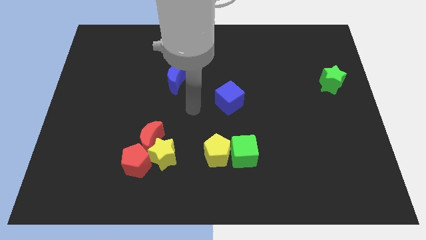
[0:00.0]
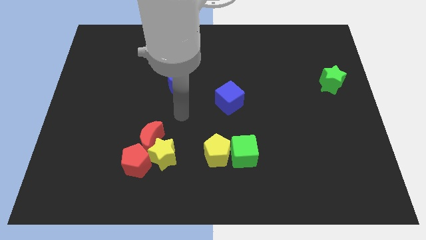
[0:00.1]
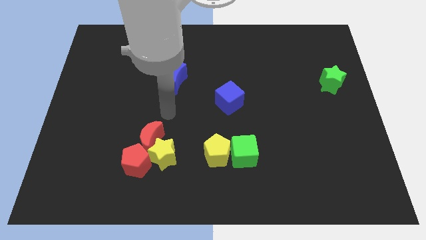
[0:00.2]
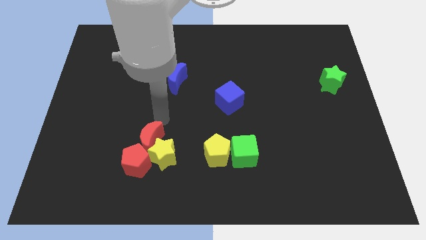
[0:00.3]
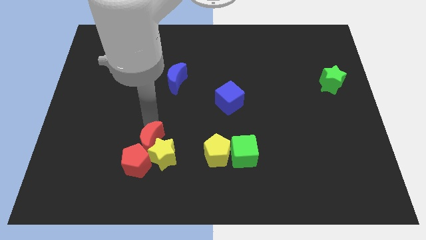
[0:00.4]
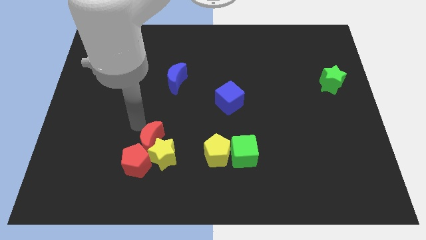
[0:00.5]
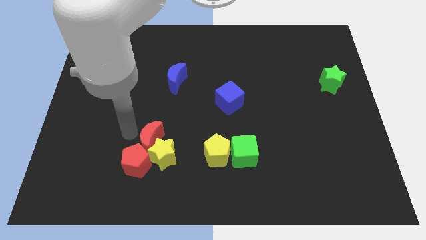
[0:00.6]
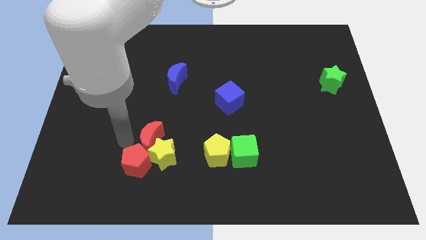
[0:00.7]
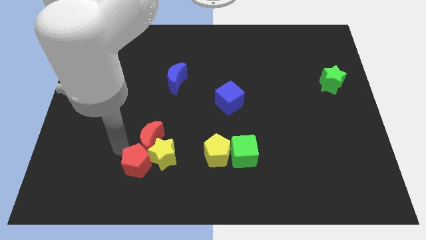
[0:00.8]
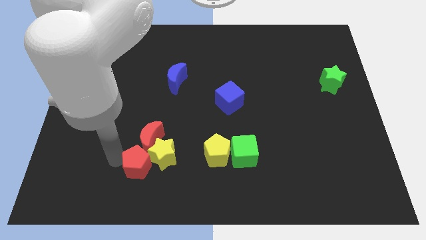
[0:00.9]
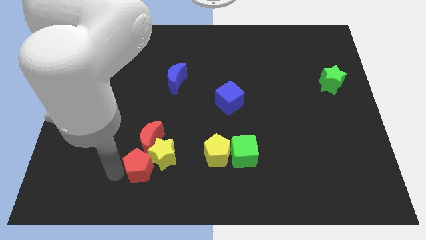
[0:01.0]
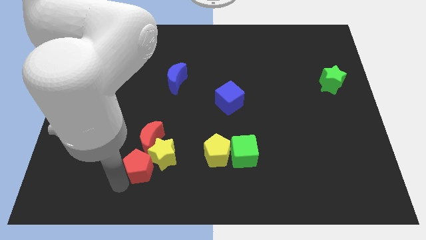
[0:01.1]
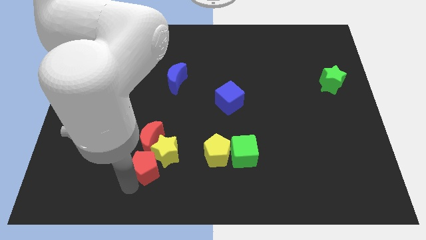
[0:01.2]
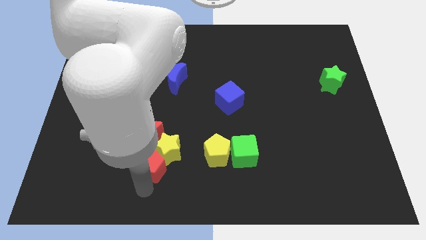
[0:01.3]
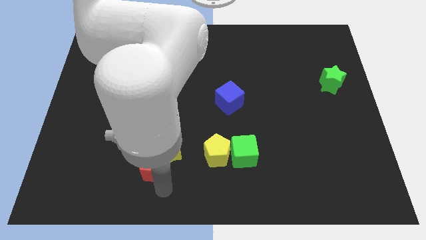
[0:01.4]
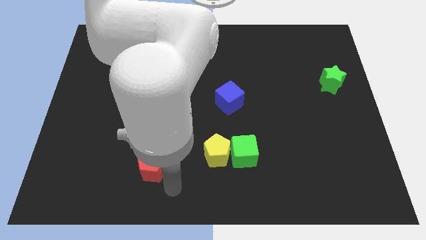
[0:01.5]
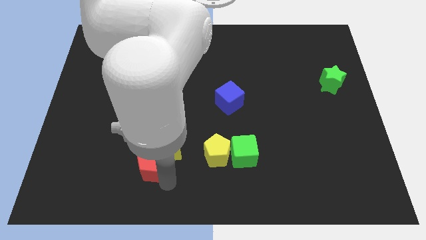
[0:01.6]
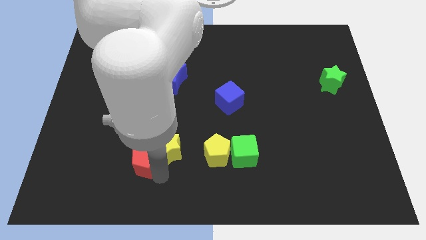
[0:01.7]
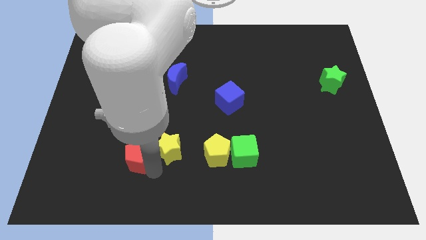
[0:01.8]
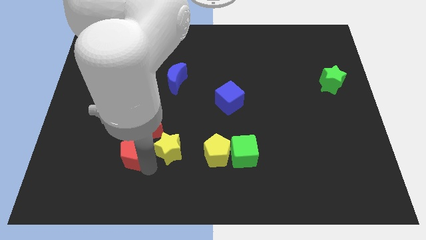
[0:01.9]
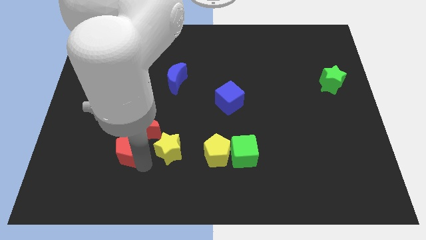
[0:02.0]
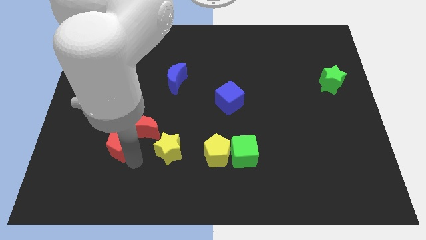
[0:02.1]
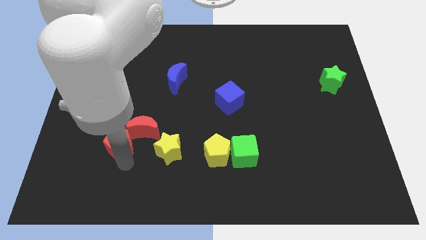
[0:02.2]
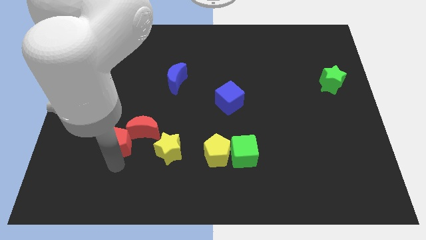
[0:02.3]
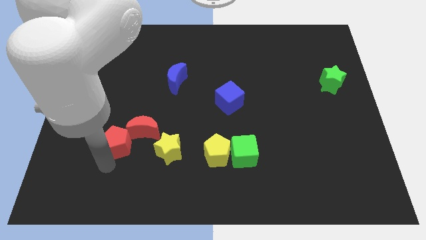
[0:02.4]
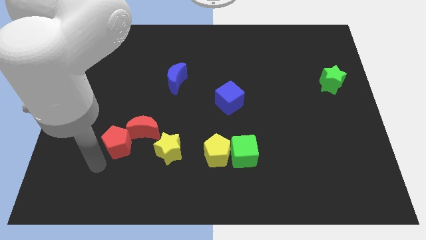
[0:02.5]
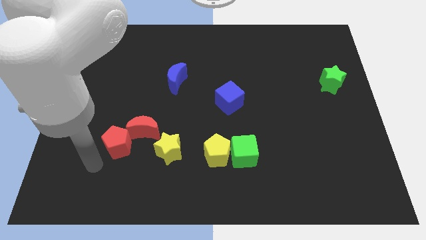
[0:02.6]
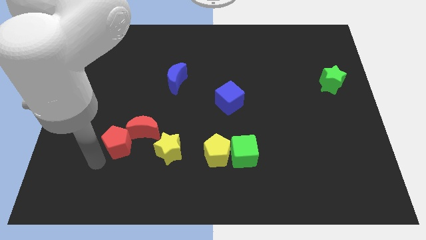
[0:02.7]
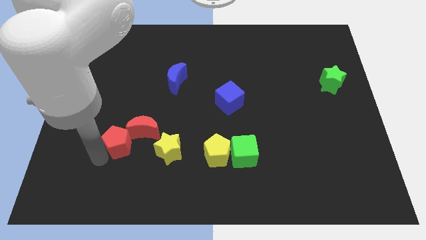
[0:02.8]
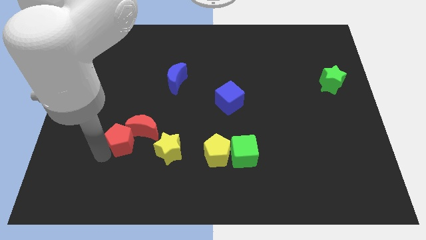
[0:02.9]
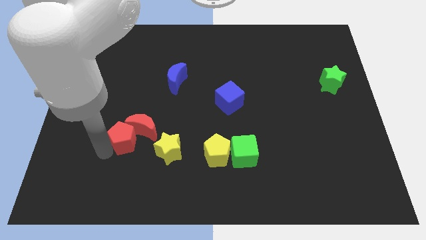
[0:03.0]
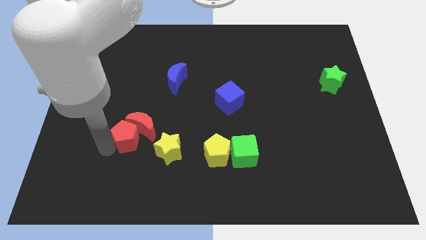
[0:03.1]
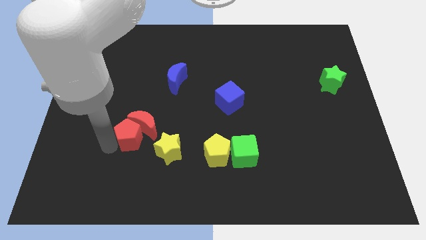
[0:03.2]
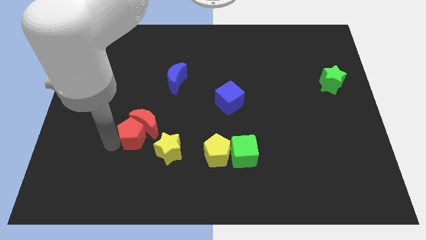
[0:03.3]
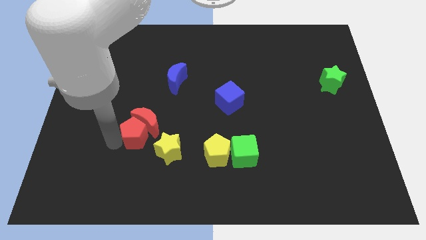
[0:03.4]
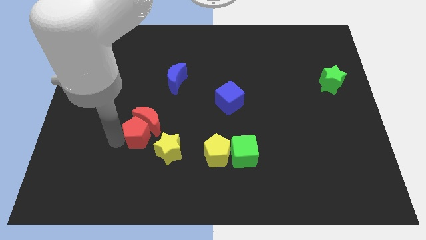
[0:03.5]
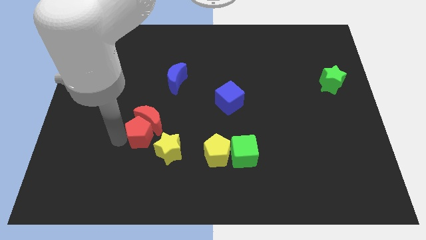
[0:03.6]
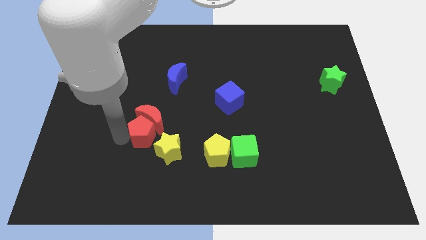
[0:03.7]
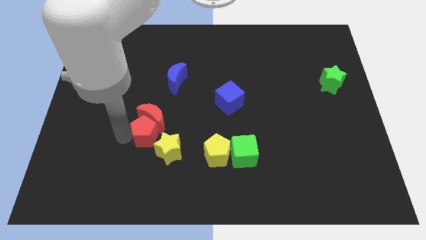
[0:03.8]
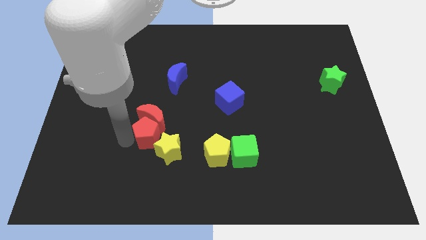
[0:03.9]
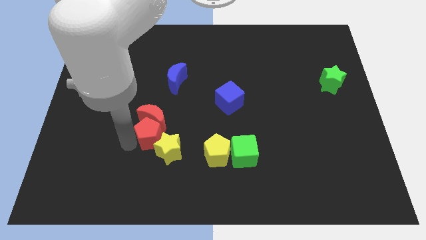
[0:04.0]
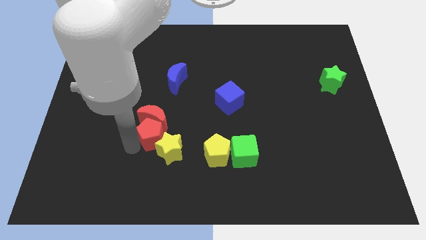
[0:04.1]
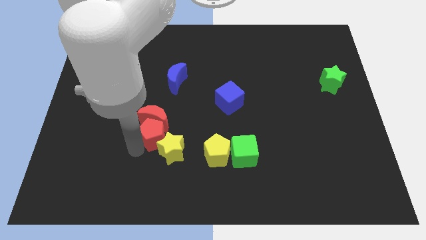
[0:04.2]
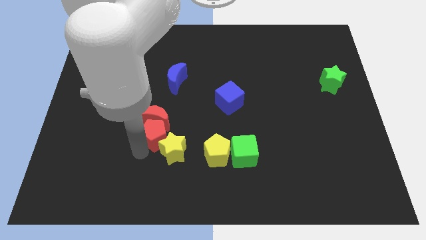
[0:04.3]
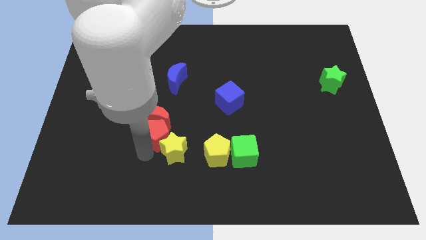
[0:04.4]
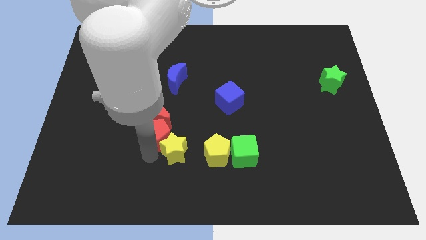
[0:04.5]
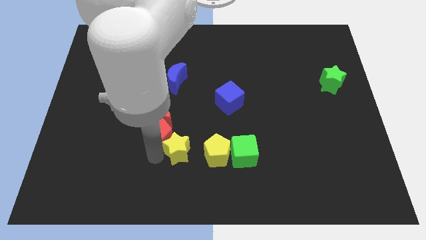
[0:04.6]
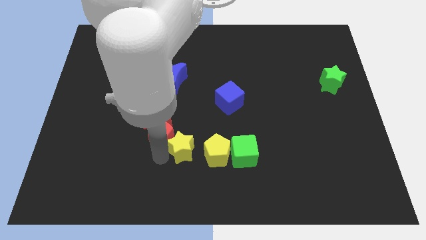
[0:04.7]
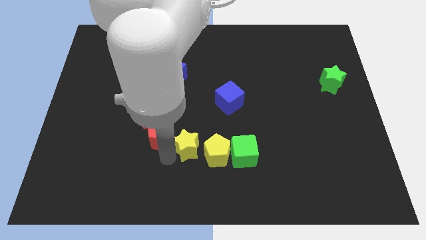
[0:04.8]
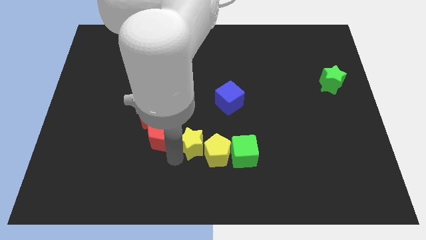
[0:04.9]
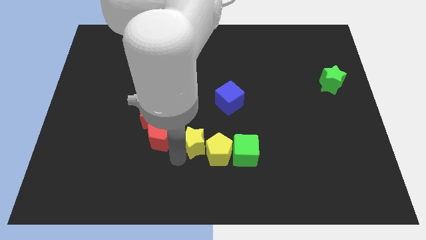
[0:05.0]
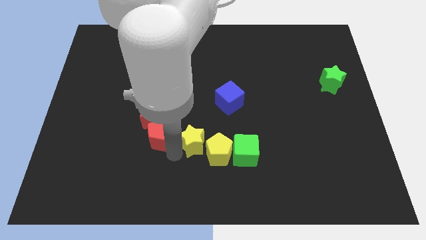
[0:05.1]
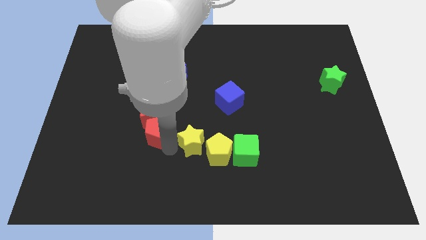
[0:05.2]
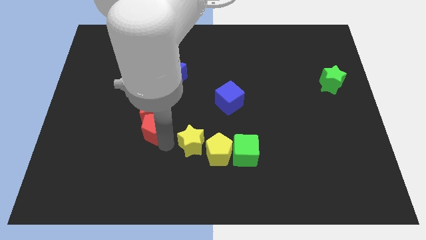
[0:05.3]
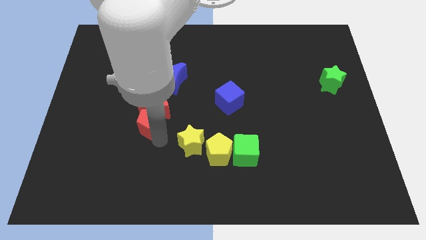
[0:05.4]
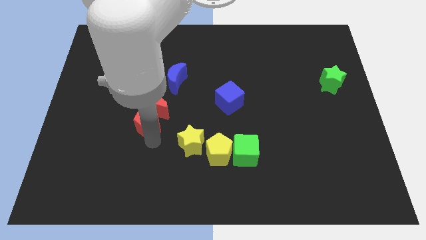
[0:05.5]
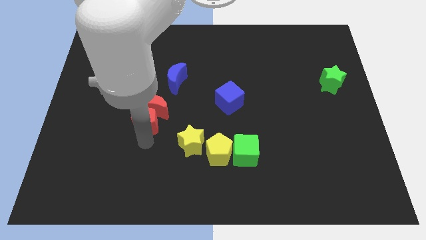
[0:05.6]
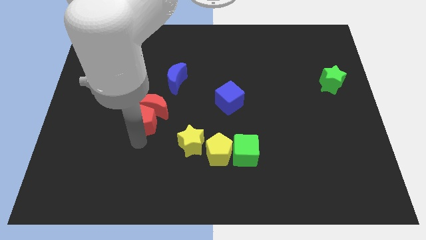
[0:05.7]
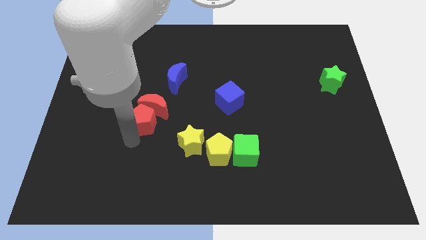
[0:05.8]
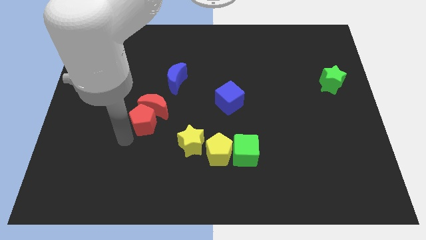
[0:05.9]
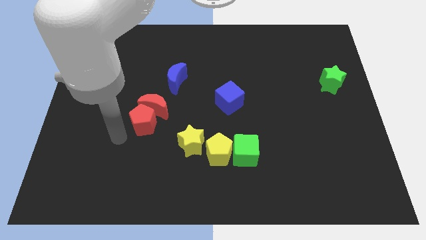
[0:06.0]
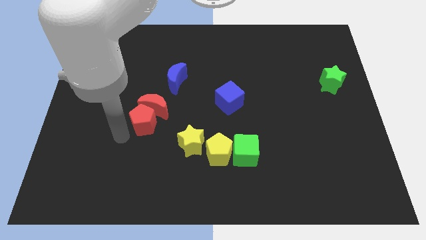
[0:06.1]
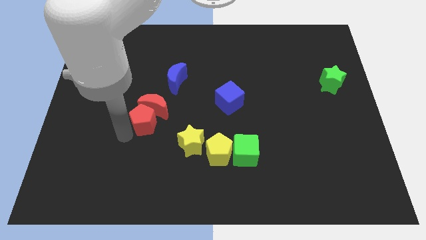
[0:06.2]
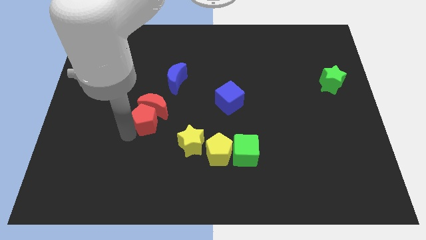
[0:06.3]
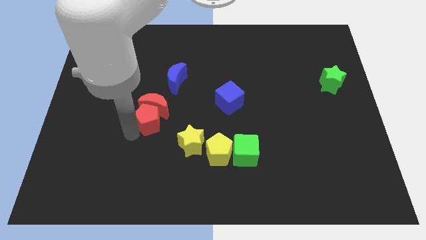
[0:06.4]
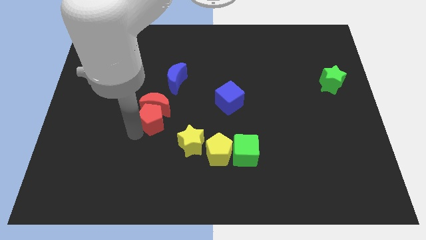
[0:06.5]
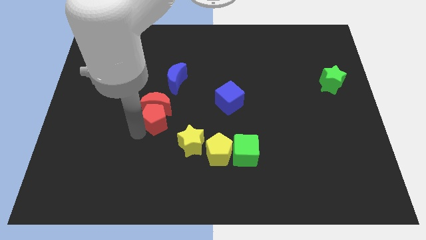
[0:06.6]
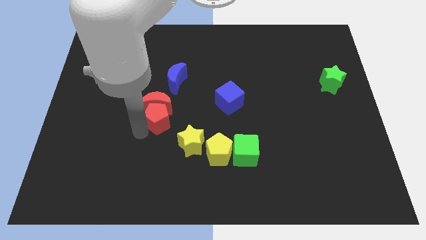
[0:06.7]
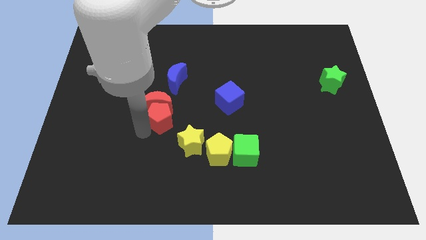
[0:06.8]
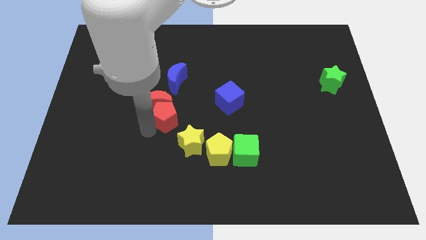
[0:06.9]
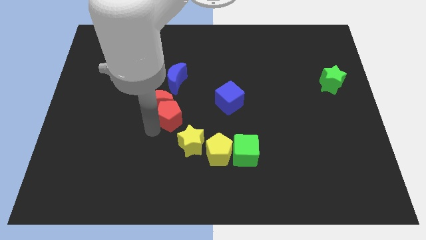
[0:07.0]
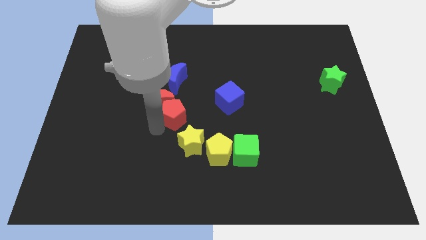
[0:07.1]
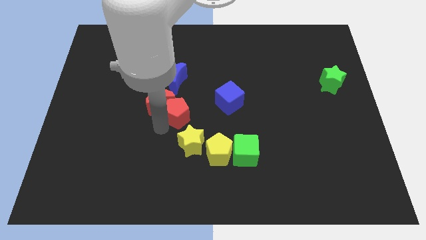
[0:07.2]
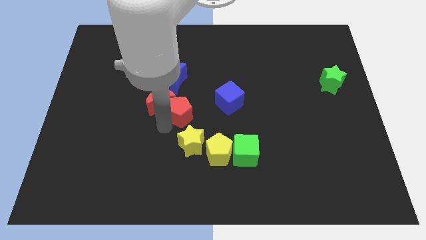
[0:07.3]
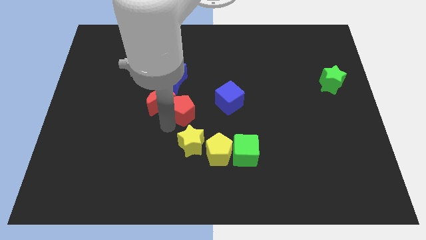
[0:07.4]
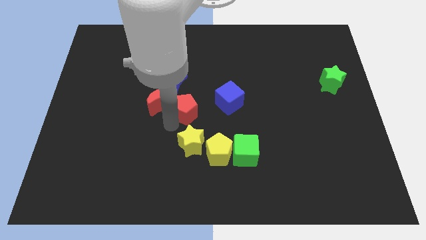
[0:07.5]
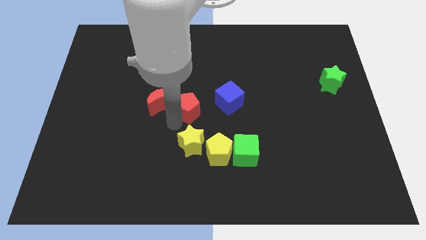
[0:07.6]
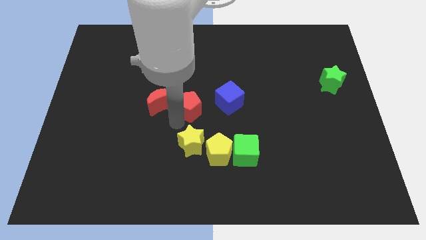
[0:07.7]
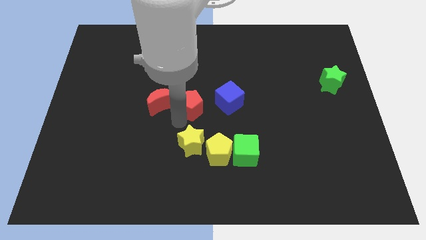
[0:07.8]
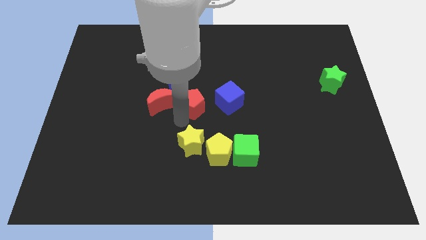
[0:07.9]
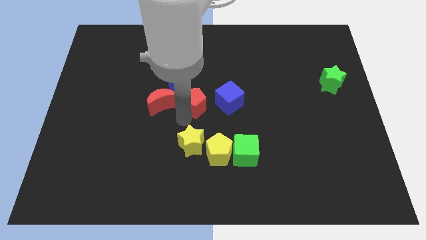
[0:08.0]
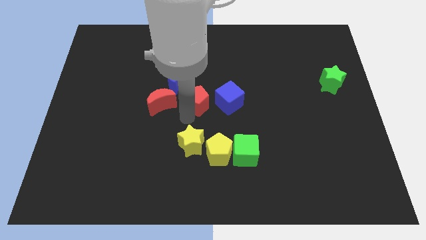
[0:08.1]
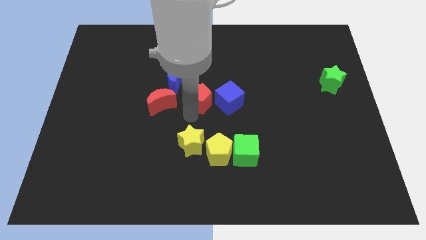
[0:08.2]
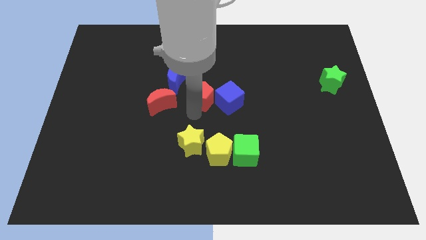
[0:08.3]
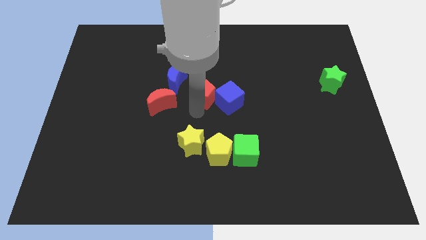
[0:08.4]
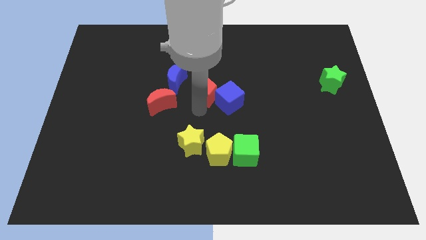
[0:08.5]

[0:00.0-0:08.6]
push the red pentagon to the right of the blue moon

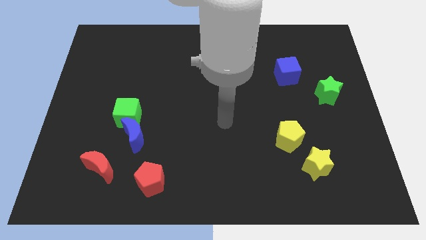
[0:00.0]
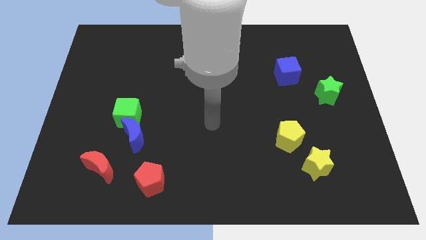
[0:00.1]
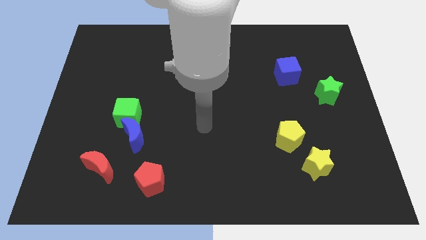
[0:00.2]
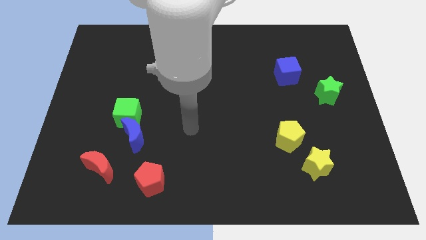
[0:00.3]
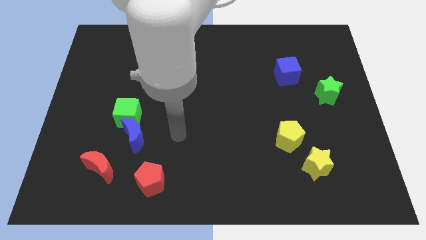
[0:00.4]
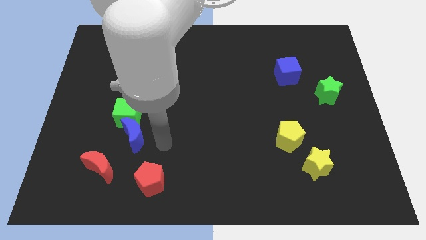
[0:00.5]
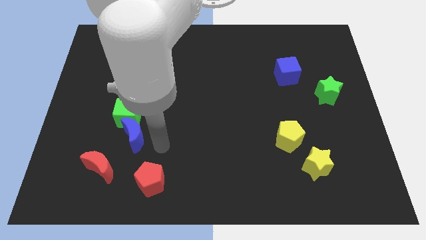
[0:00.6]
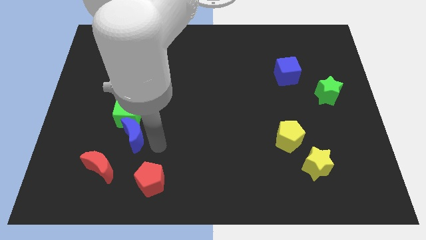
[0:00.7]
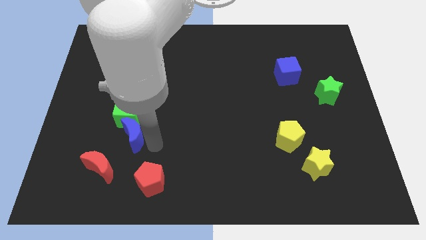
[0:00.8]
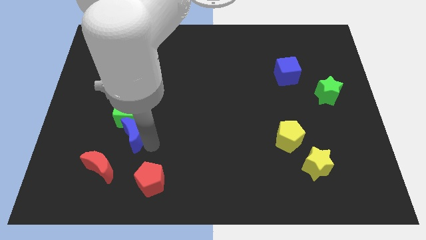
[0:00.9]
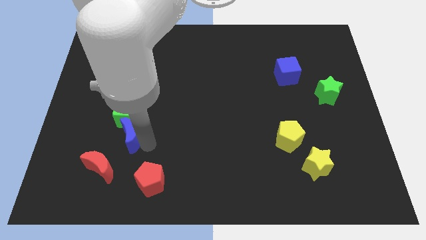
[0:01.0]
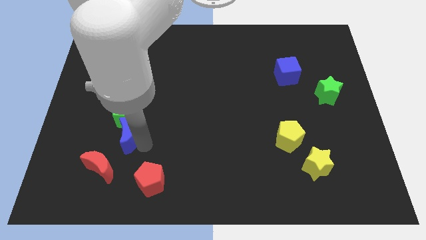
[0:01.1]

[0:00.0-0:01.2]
put the blue moon to the top side of the red moon
